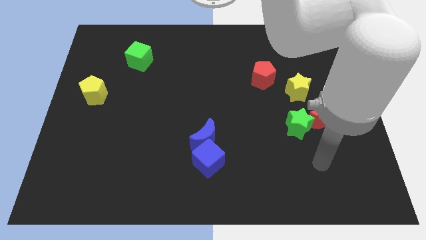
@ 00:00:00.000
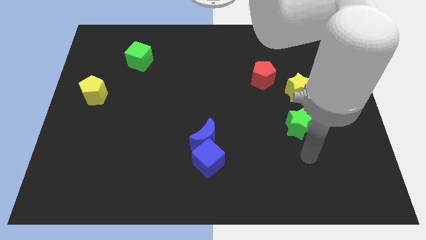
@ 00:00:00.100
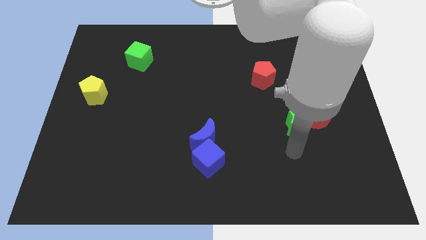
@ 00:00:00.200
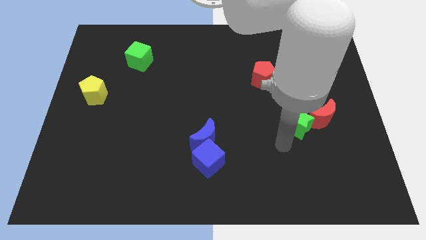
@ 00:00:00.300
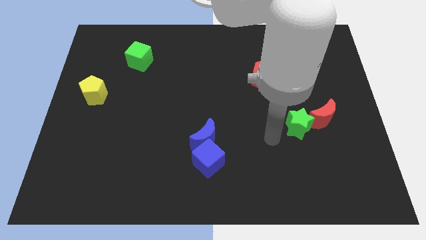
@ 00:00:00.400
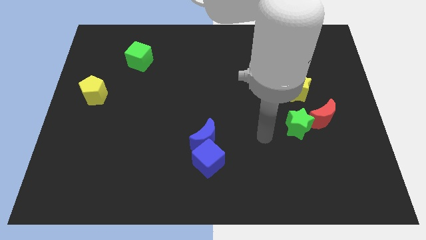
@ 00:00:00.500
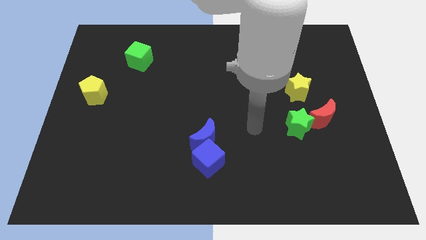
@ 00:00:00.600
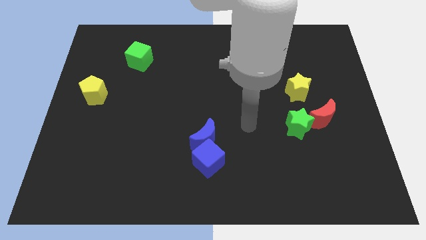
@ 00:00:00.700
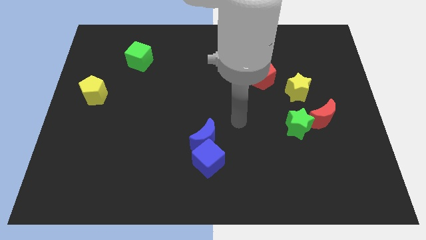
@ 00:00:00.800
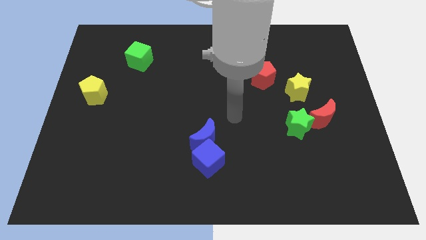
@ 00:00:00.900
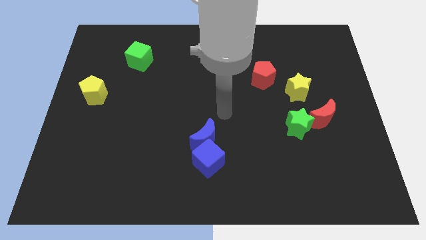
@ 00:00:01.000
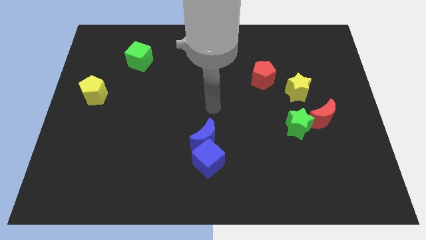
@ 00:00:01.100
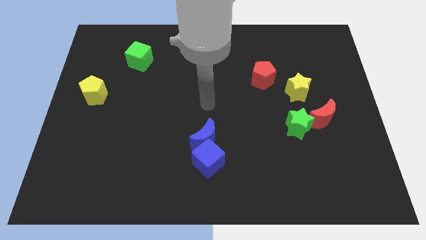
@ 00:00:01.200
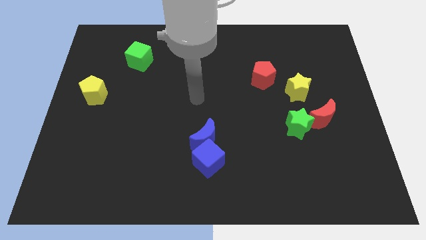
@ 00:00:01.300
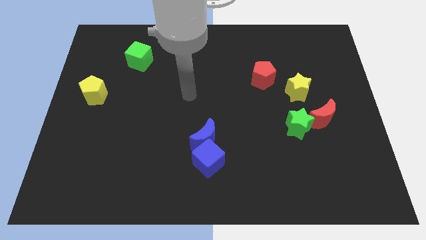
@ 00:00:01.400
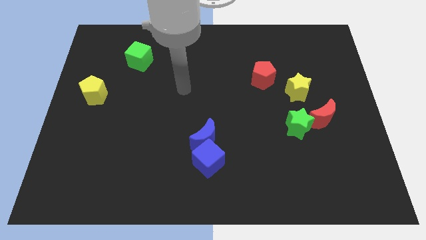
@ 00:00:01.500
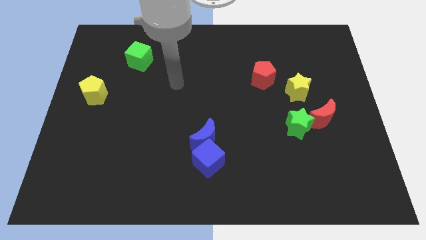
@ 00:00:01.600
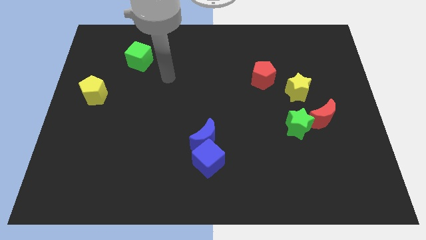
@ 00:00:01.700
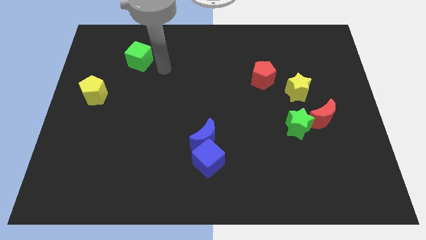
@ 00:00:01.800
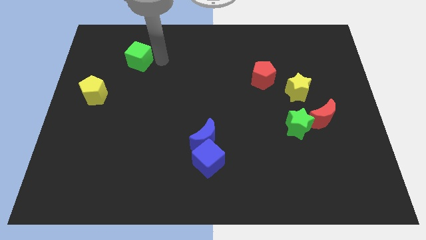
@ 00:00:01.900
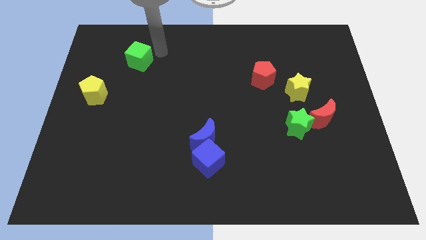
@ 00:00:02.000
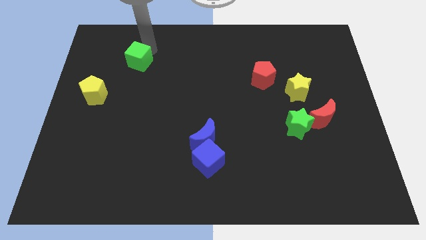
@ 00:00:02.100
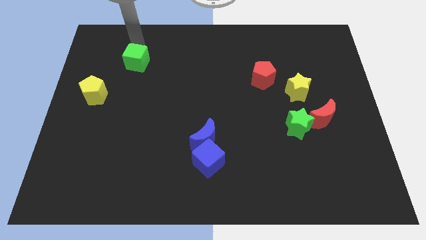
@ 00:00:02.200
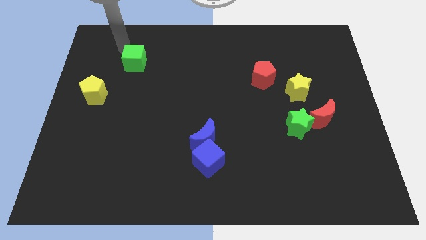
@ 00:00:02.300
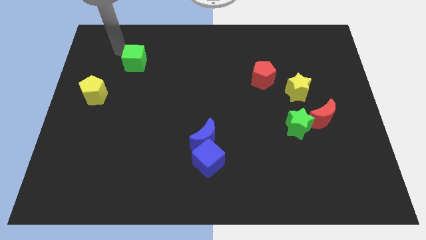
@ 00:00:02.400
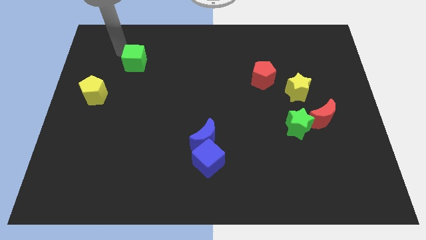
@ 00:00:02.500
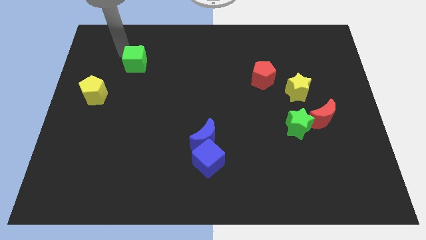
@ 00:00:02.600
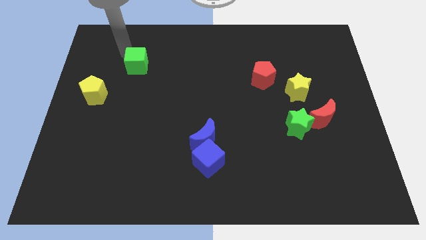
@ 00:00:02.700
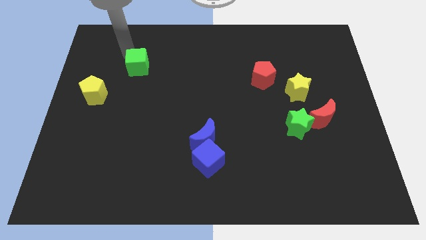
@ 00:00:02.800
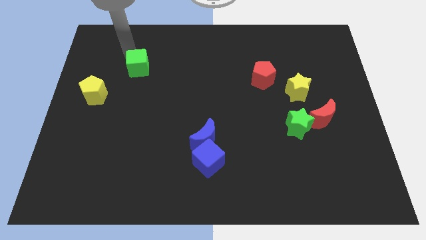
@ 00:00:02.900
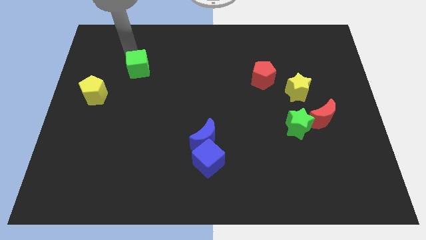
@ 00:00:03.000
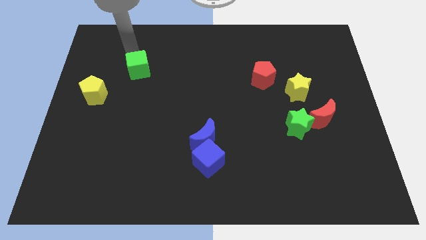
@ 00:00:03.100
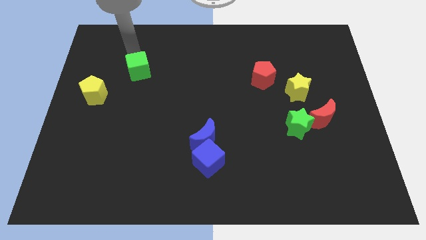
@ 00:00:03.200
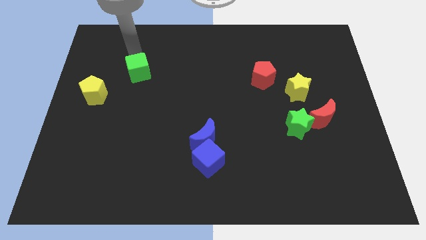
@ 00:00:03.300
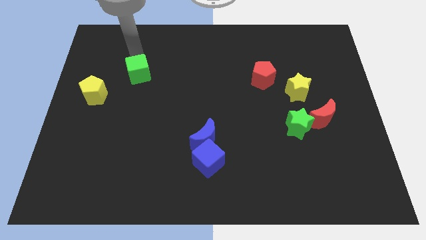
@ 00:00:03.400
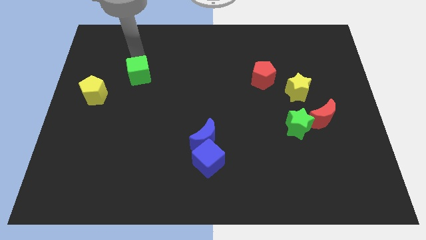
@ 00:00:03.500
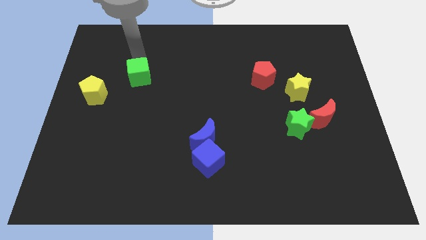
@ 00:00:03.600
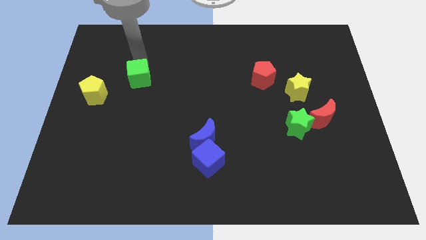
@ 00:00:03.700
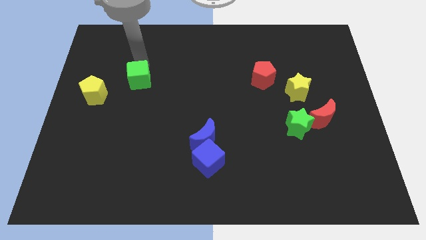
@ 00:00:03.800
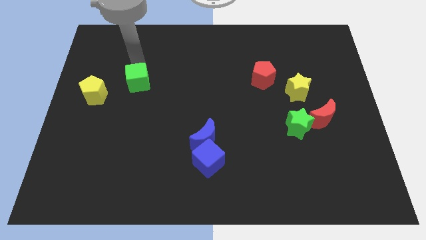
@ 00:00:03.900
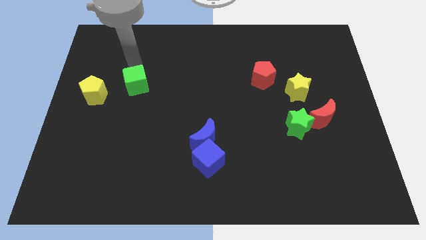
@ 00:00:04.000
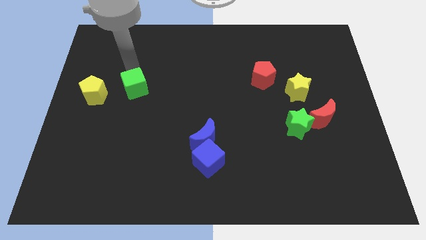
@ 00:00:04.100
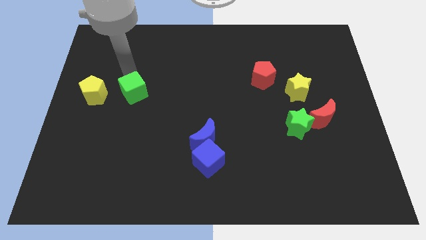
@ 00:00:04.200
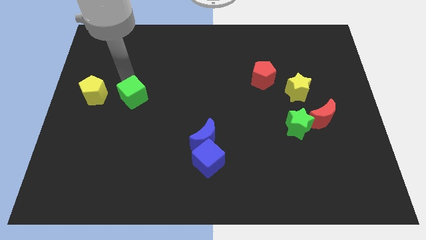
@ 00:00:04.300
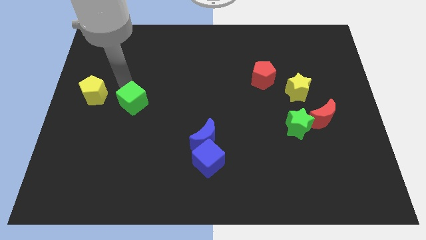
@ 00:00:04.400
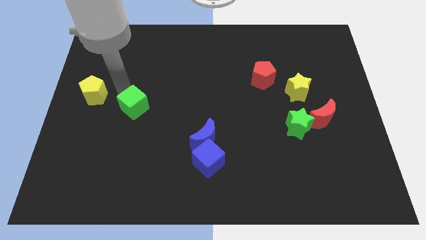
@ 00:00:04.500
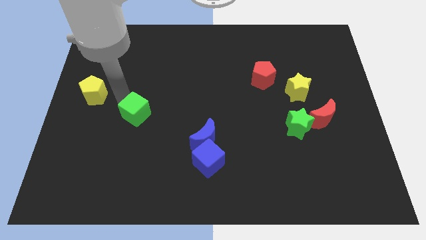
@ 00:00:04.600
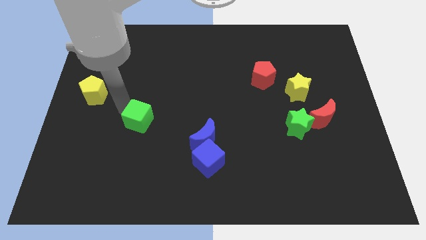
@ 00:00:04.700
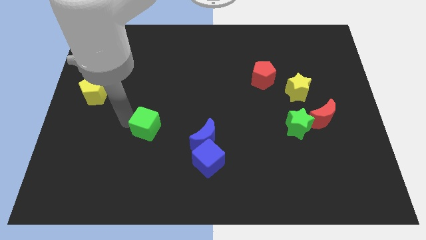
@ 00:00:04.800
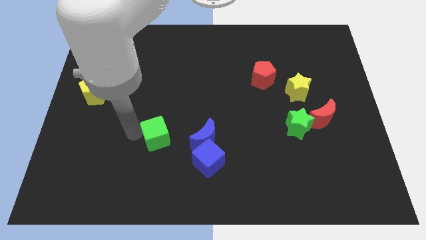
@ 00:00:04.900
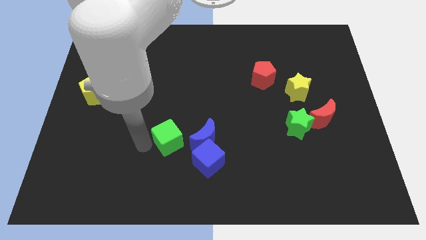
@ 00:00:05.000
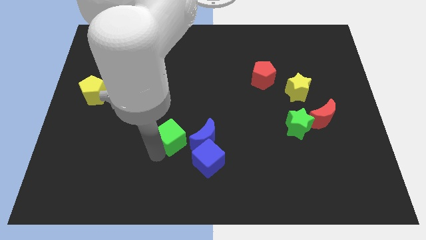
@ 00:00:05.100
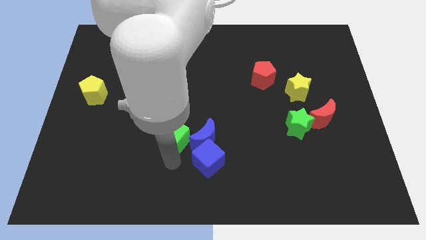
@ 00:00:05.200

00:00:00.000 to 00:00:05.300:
push the green cube downwards and to the right diagonally

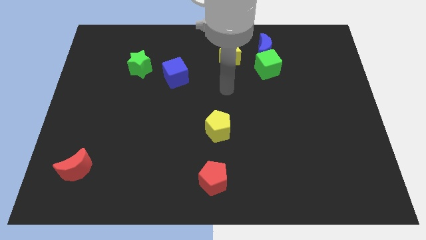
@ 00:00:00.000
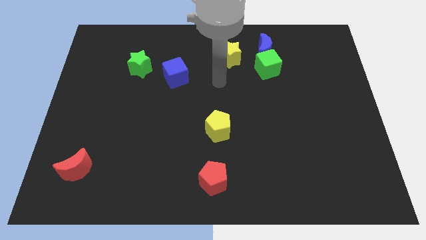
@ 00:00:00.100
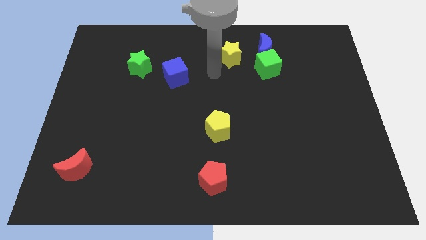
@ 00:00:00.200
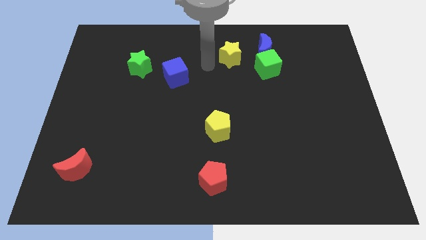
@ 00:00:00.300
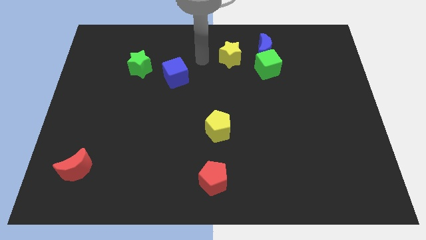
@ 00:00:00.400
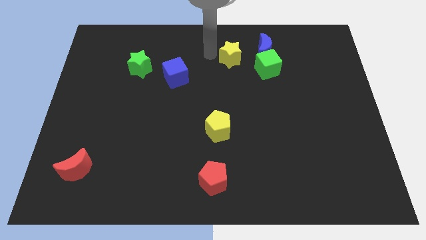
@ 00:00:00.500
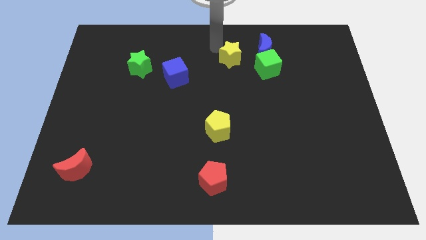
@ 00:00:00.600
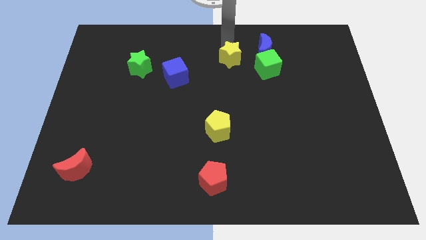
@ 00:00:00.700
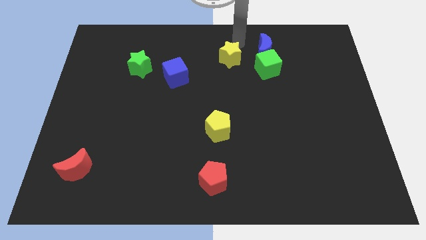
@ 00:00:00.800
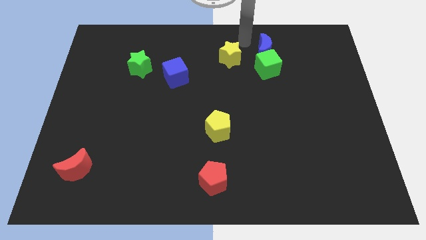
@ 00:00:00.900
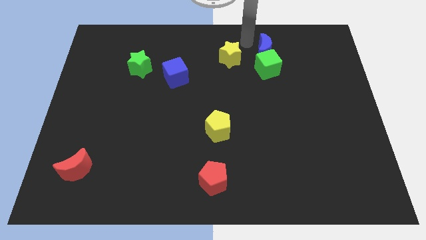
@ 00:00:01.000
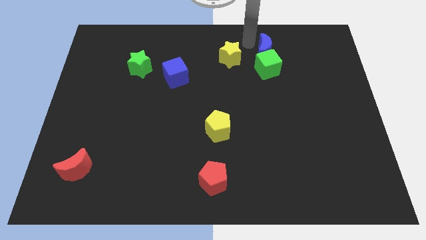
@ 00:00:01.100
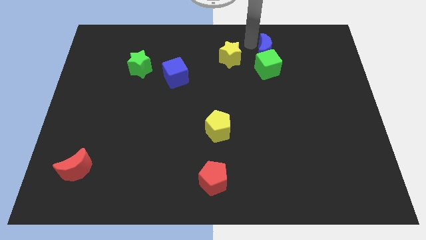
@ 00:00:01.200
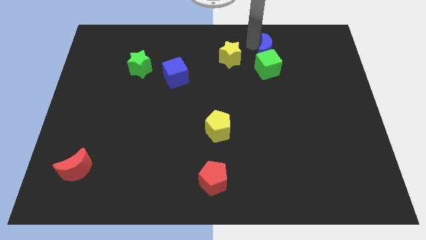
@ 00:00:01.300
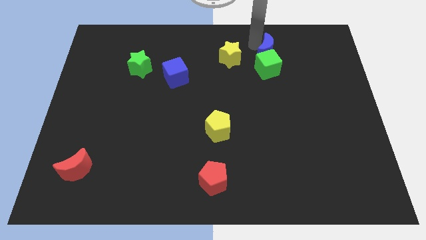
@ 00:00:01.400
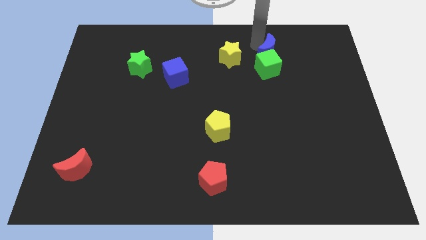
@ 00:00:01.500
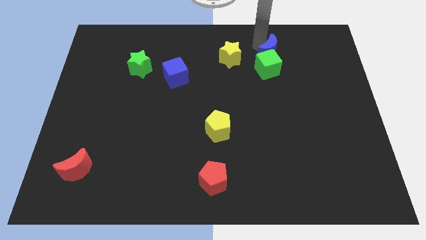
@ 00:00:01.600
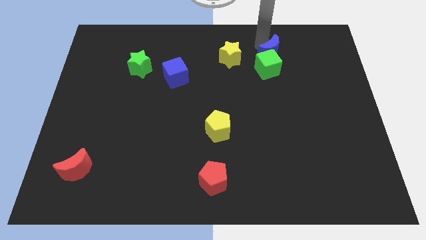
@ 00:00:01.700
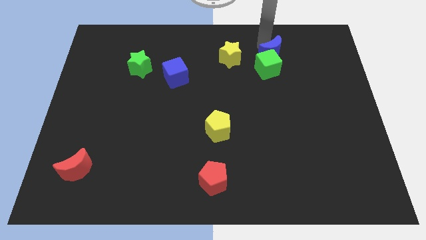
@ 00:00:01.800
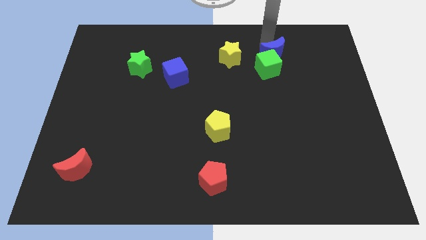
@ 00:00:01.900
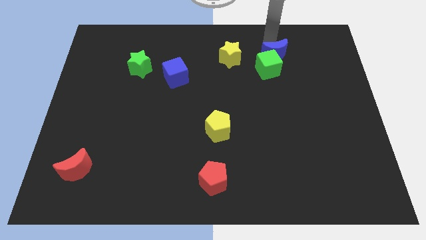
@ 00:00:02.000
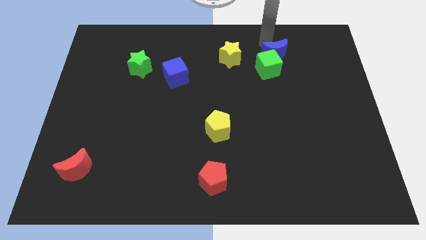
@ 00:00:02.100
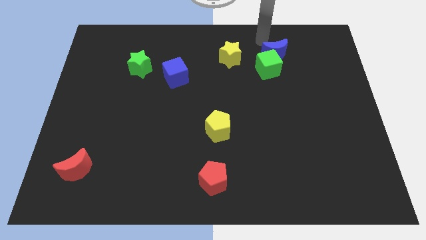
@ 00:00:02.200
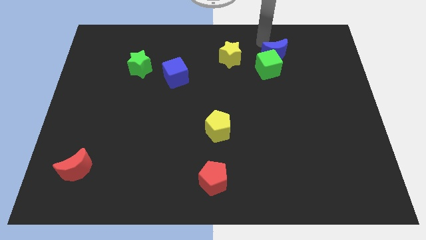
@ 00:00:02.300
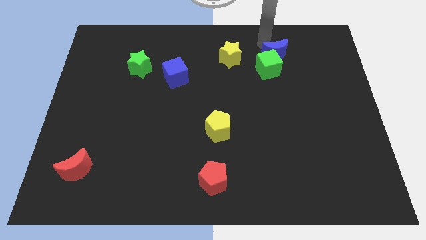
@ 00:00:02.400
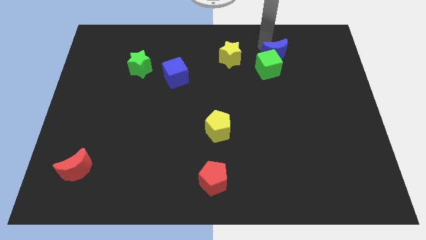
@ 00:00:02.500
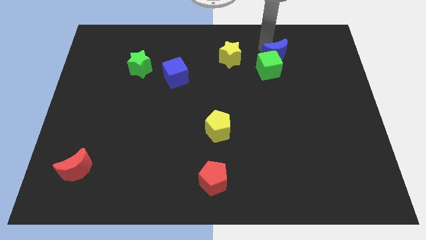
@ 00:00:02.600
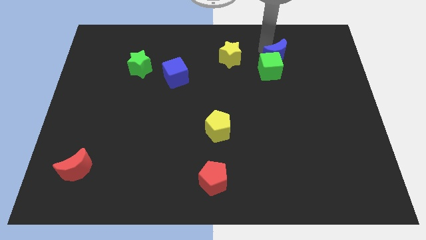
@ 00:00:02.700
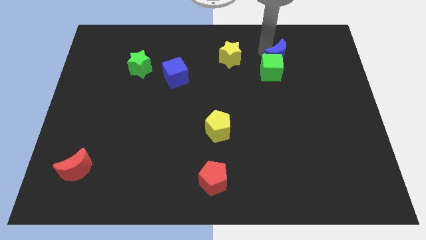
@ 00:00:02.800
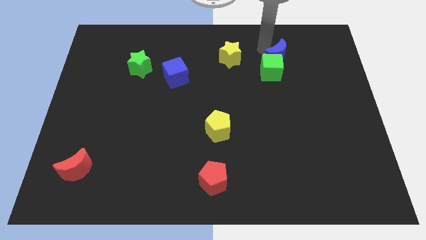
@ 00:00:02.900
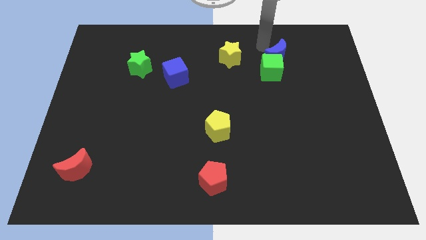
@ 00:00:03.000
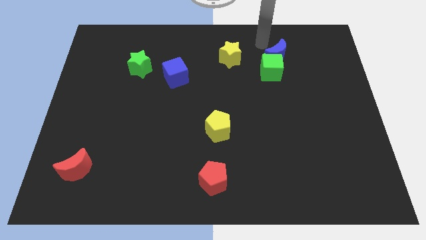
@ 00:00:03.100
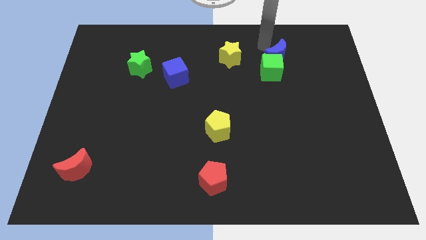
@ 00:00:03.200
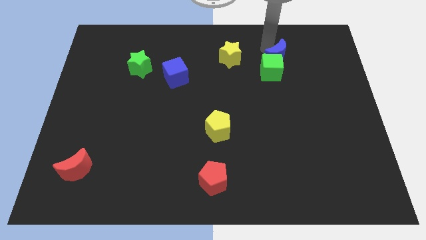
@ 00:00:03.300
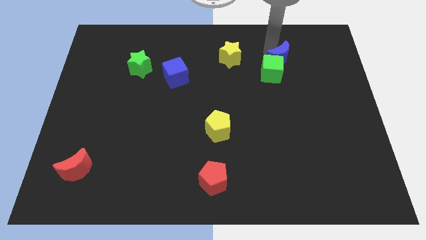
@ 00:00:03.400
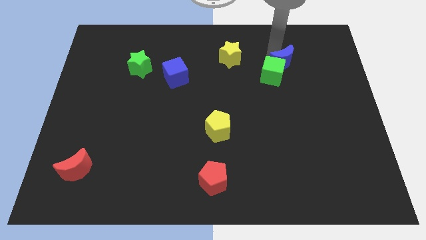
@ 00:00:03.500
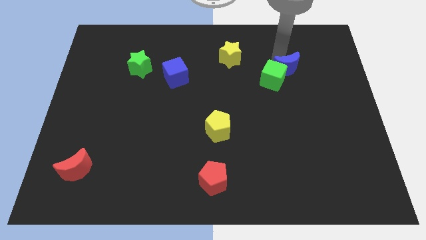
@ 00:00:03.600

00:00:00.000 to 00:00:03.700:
push the blue moon slightly downwards and then to the right
